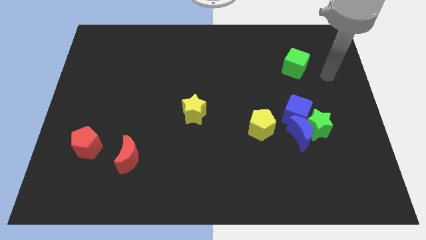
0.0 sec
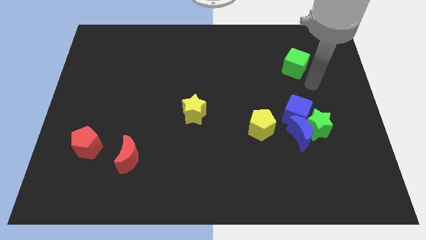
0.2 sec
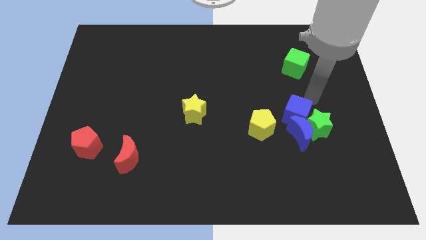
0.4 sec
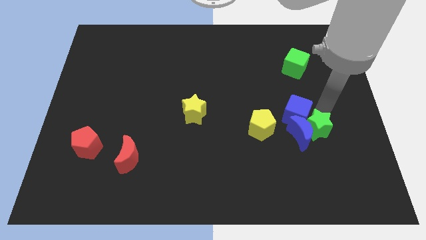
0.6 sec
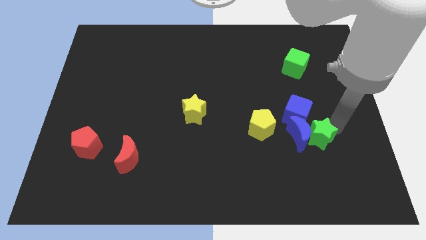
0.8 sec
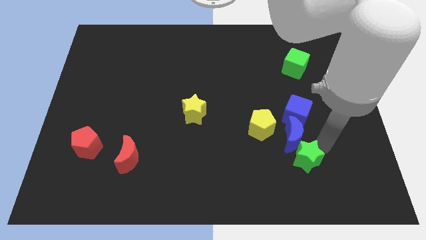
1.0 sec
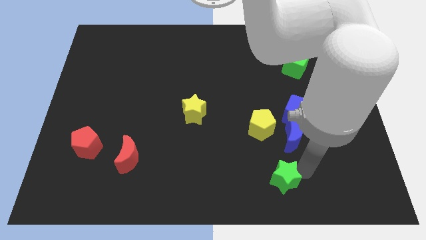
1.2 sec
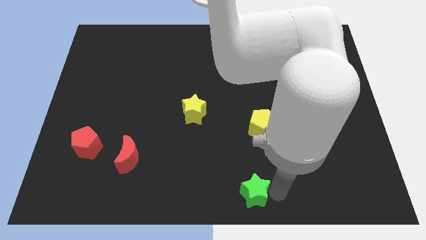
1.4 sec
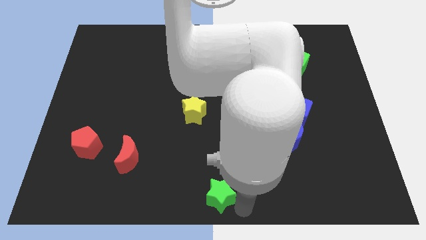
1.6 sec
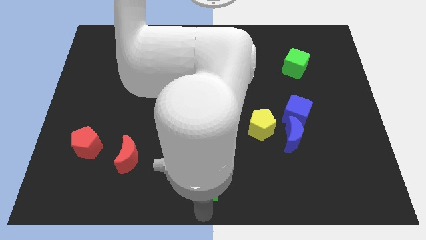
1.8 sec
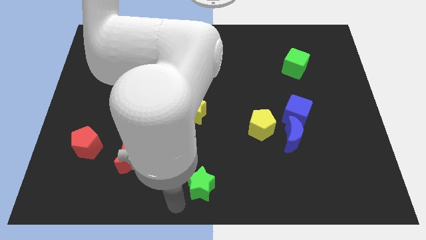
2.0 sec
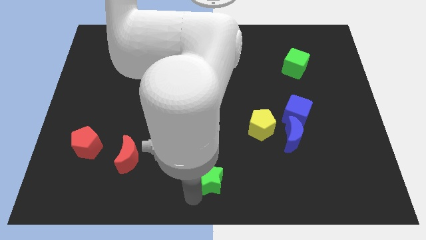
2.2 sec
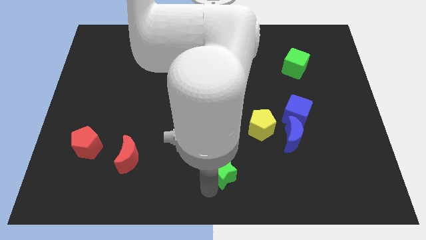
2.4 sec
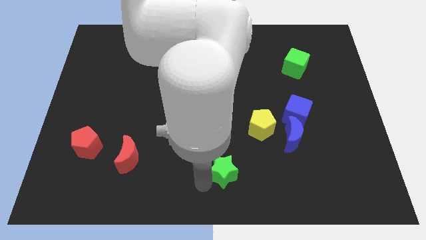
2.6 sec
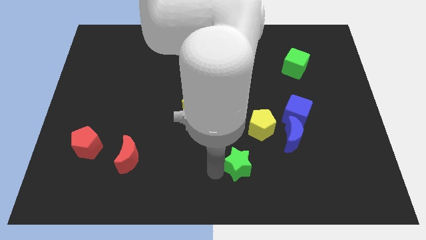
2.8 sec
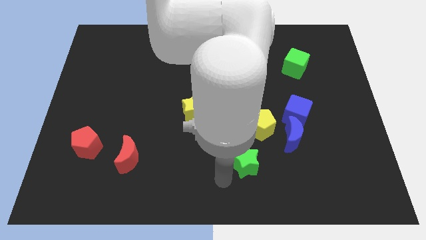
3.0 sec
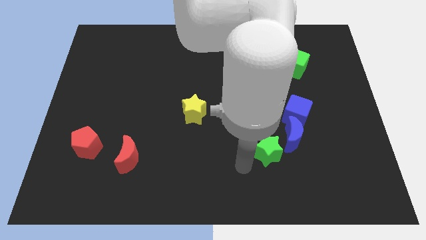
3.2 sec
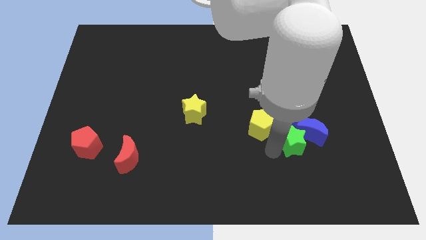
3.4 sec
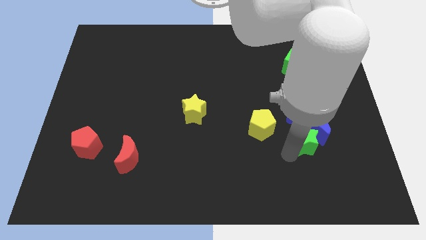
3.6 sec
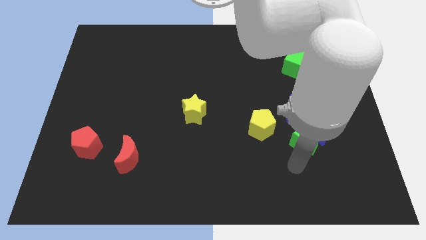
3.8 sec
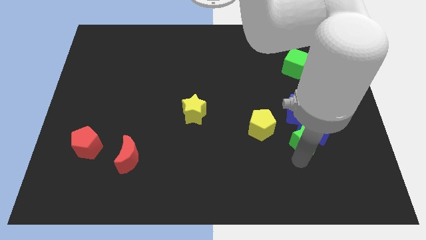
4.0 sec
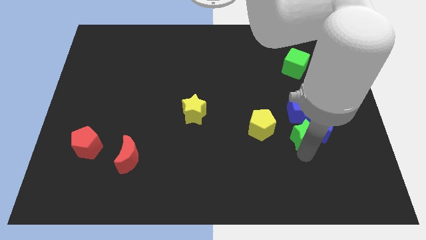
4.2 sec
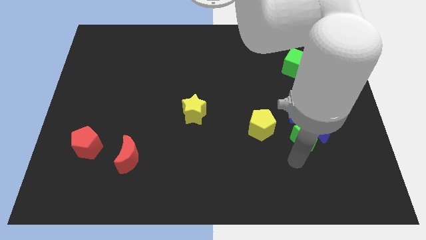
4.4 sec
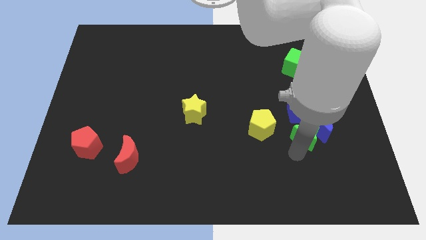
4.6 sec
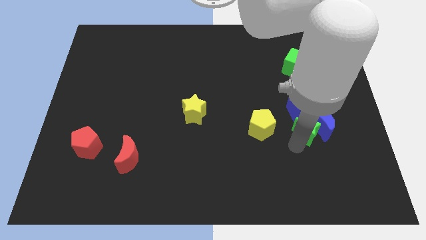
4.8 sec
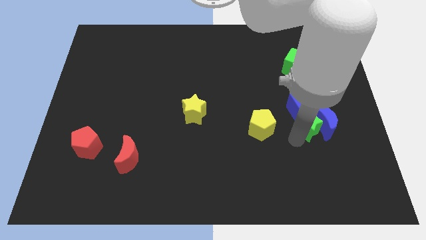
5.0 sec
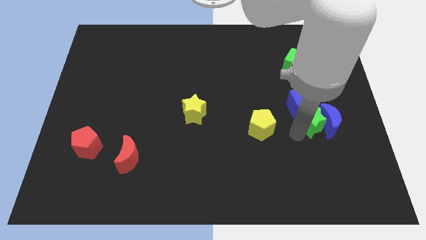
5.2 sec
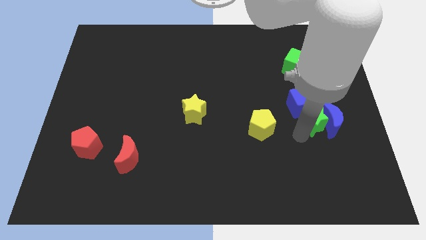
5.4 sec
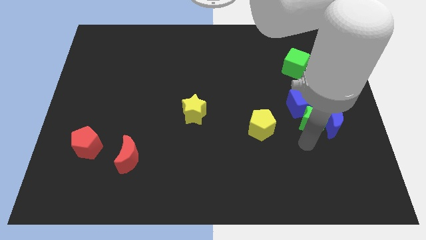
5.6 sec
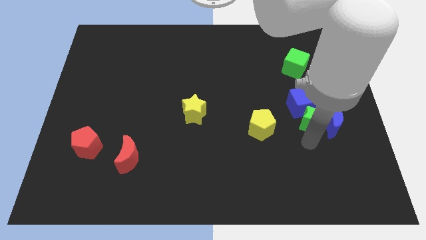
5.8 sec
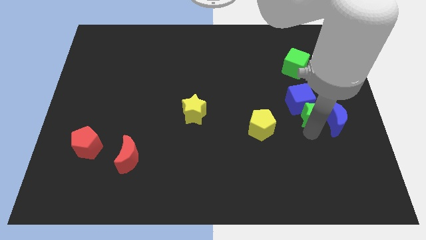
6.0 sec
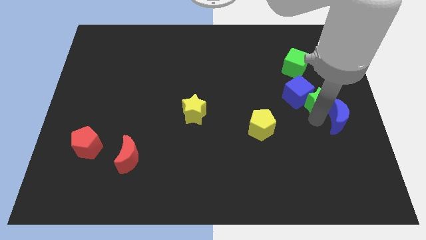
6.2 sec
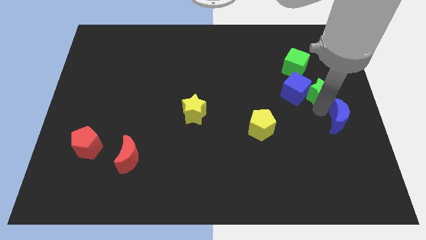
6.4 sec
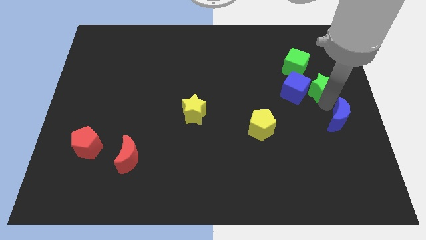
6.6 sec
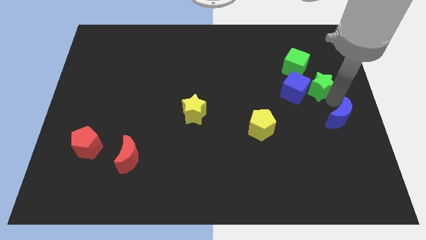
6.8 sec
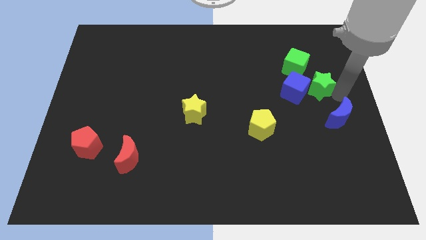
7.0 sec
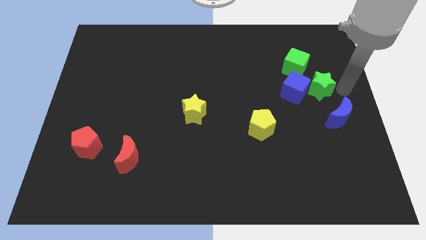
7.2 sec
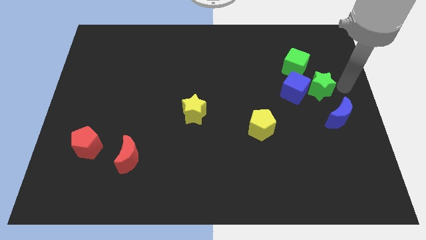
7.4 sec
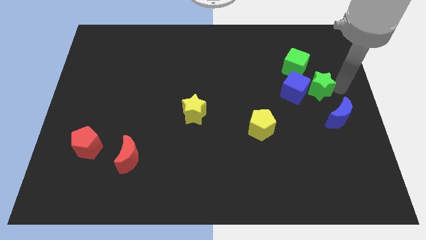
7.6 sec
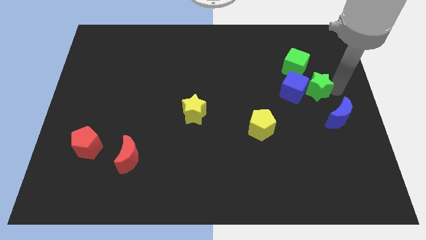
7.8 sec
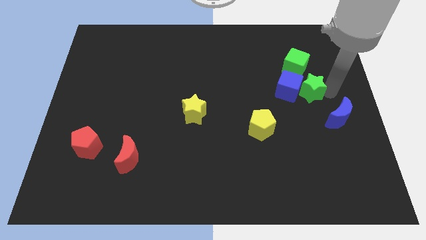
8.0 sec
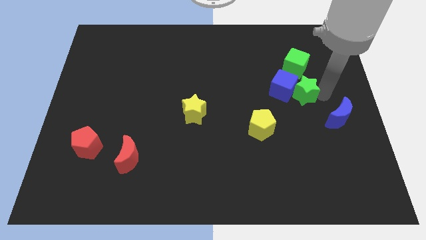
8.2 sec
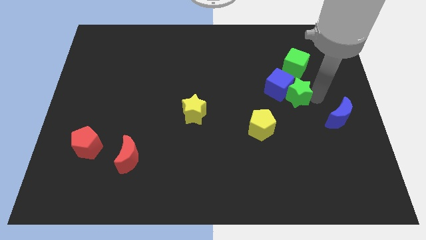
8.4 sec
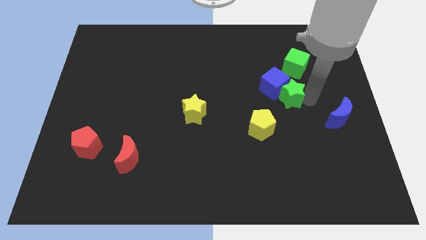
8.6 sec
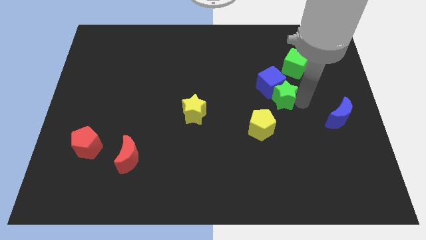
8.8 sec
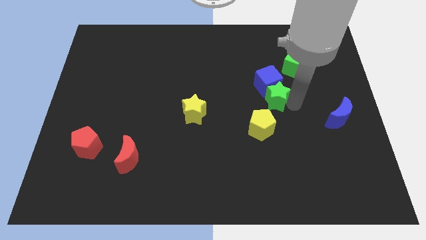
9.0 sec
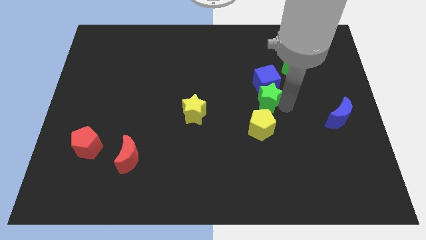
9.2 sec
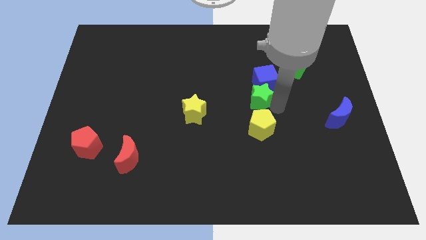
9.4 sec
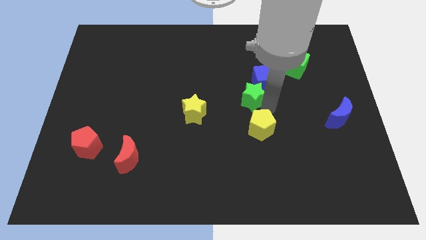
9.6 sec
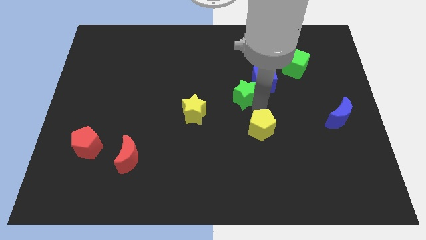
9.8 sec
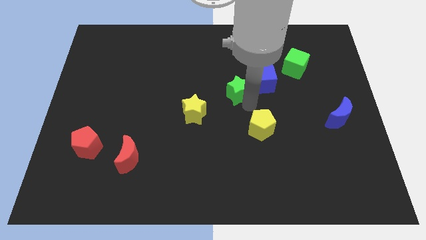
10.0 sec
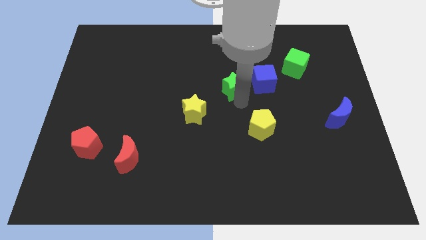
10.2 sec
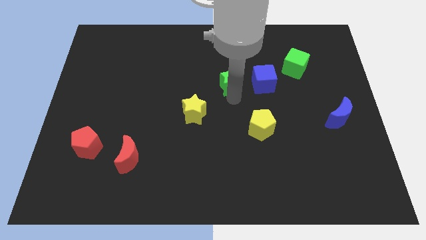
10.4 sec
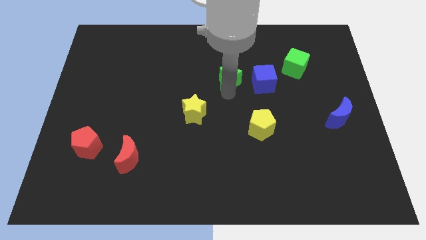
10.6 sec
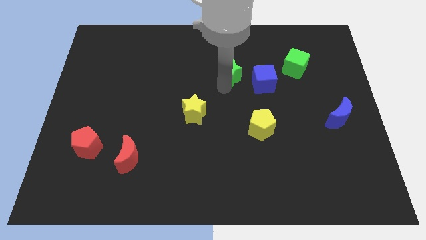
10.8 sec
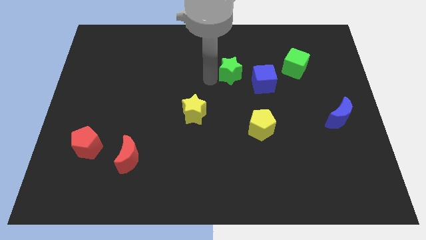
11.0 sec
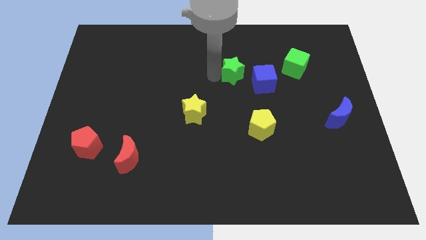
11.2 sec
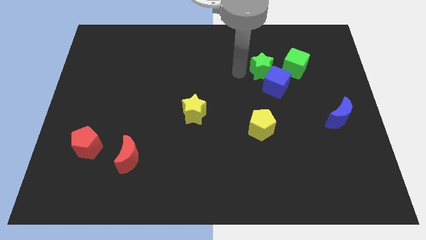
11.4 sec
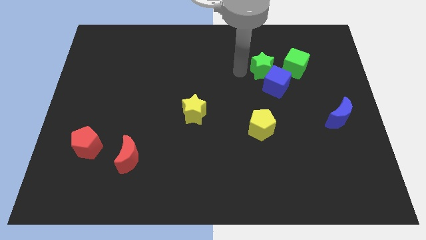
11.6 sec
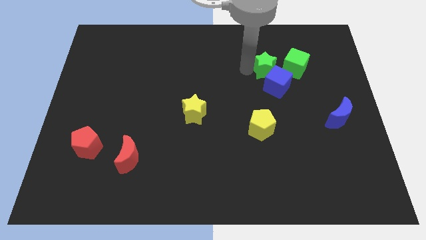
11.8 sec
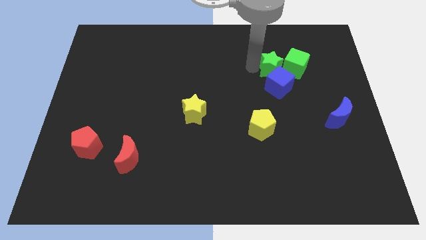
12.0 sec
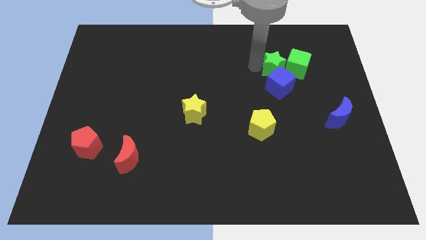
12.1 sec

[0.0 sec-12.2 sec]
slide the green star to the green cube

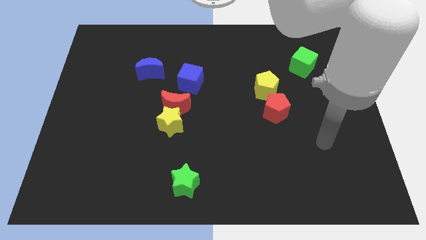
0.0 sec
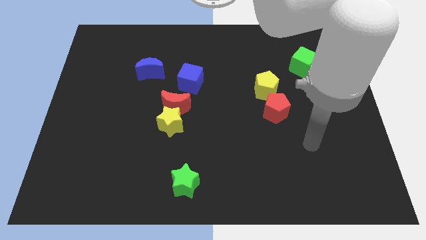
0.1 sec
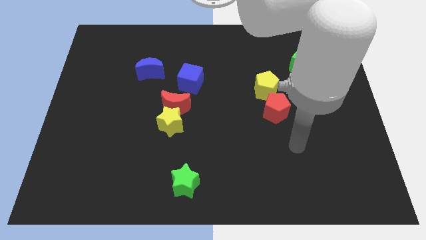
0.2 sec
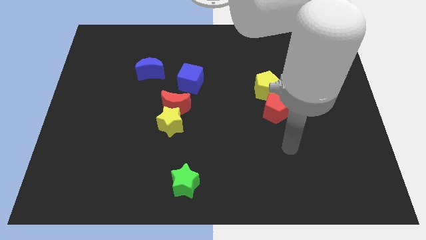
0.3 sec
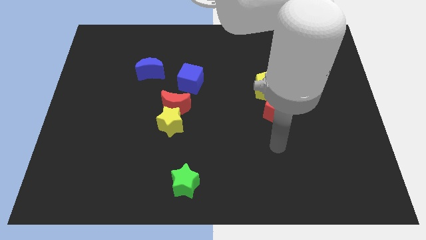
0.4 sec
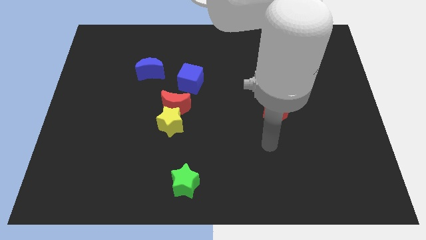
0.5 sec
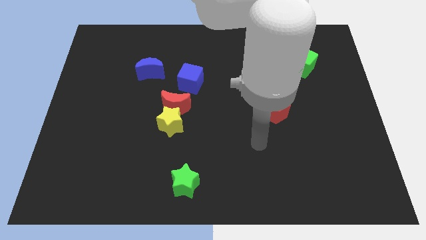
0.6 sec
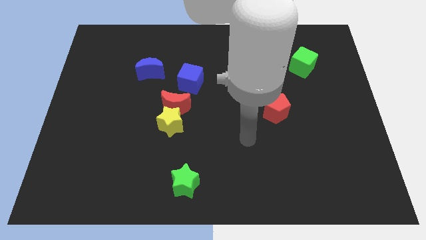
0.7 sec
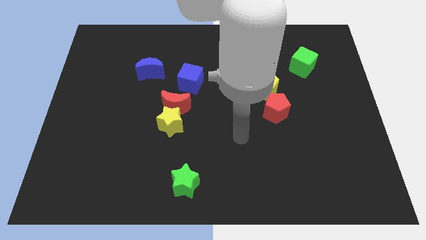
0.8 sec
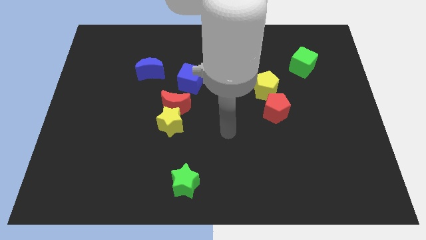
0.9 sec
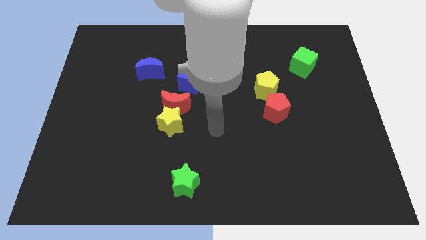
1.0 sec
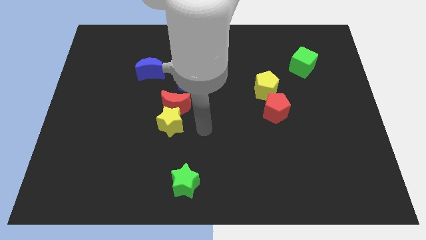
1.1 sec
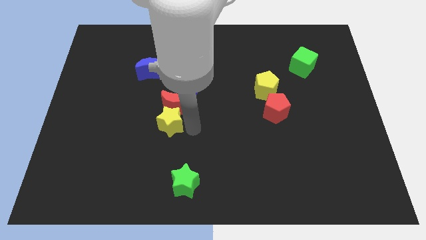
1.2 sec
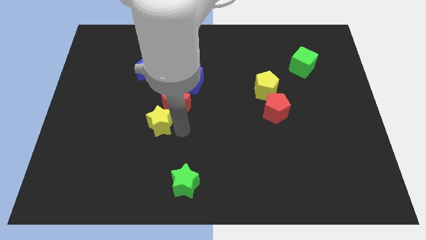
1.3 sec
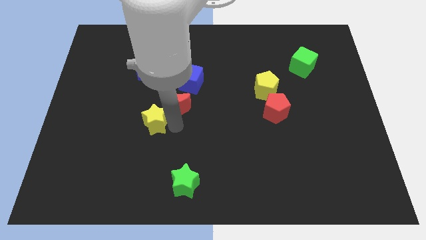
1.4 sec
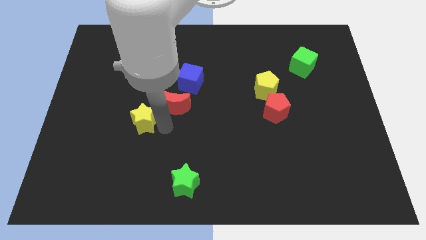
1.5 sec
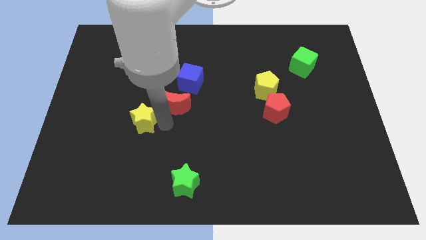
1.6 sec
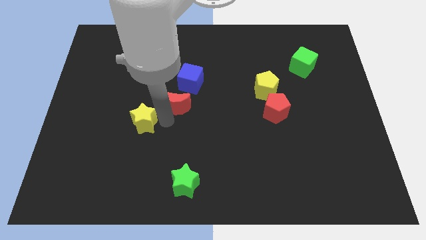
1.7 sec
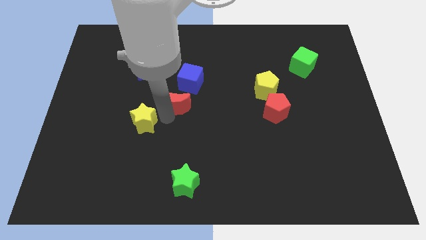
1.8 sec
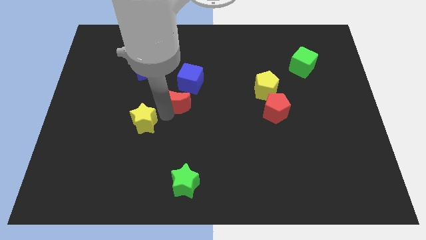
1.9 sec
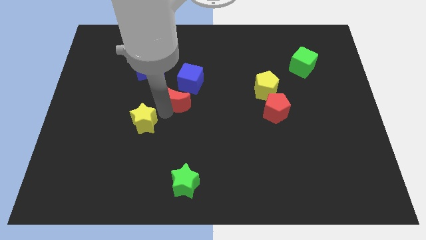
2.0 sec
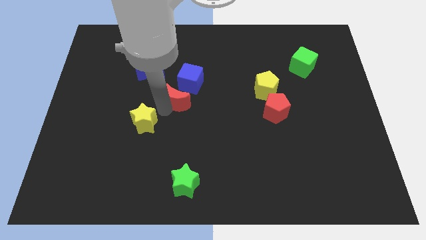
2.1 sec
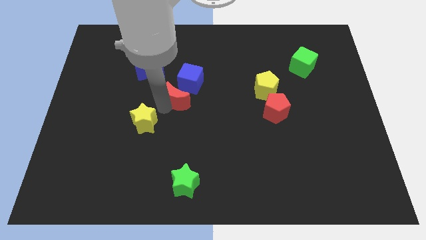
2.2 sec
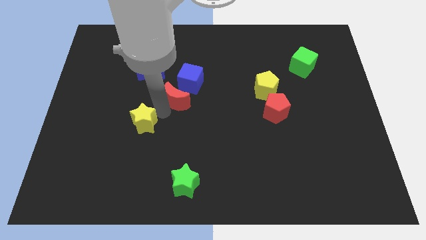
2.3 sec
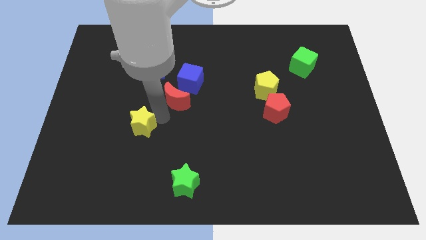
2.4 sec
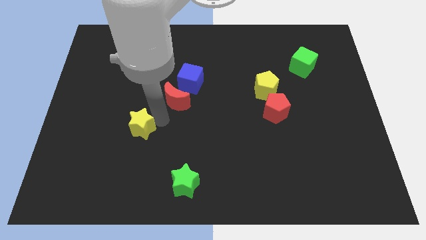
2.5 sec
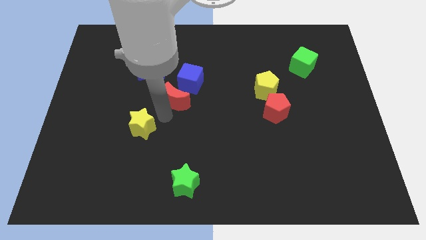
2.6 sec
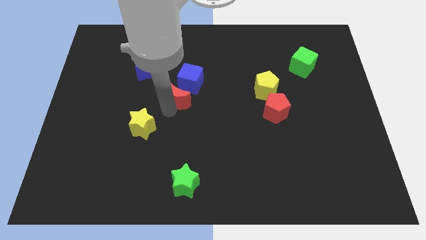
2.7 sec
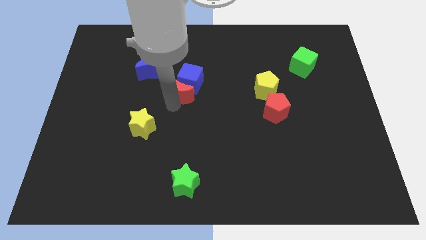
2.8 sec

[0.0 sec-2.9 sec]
slide the red moon close to the blue cube
